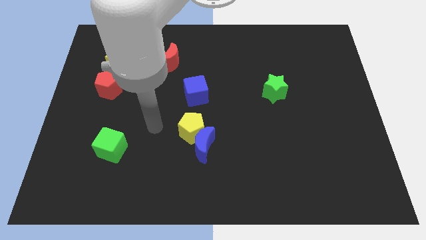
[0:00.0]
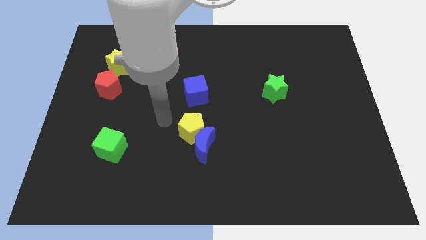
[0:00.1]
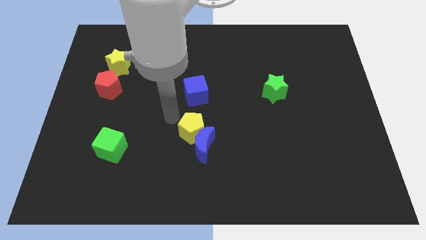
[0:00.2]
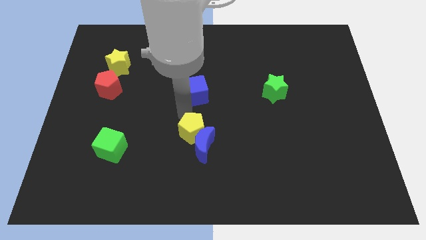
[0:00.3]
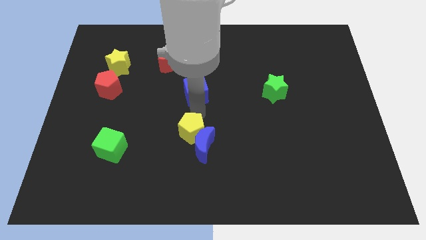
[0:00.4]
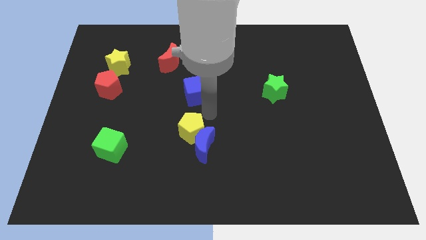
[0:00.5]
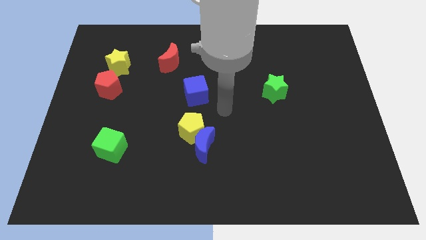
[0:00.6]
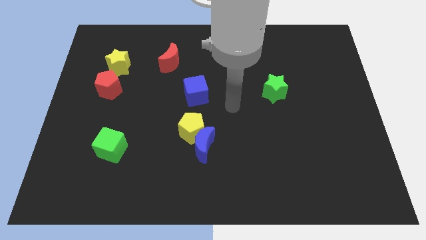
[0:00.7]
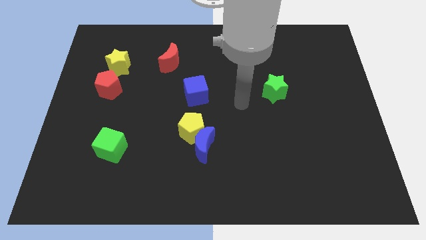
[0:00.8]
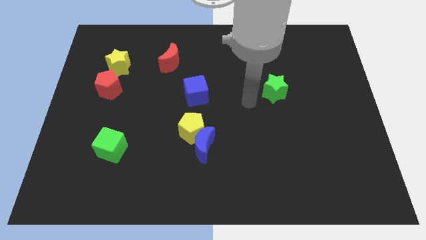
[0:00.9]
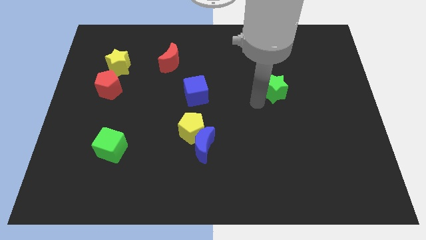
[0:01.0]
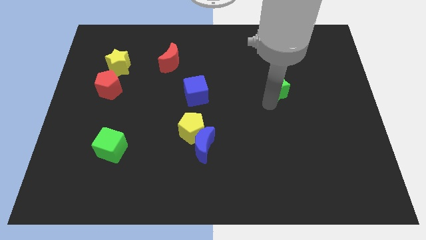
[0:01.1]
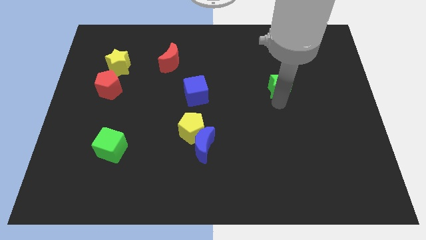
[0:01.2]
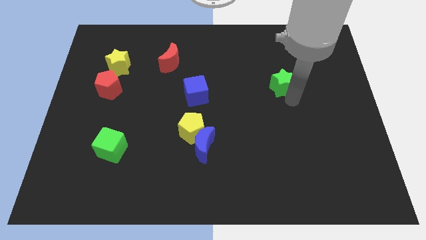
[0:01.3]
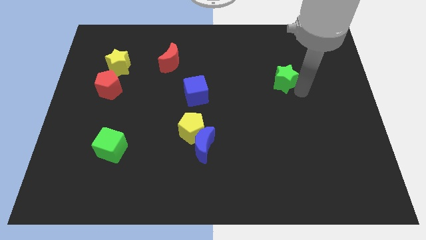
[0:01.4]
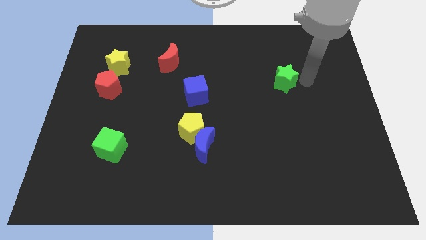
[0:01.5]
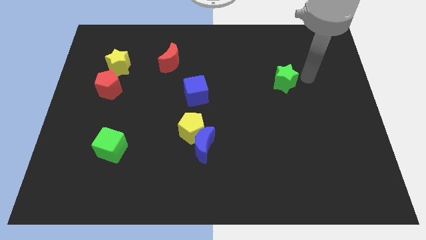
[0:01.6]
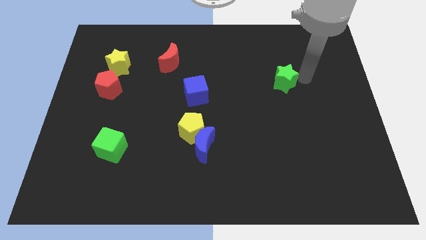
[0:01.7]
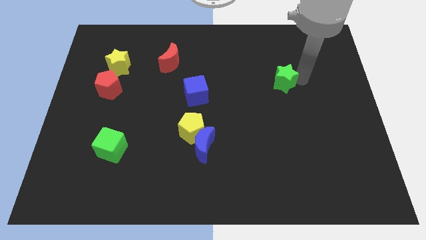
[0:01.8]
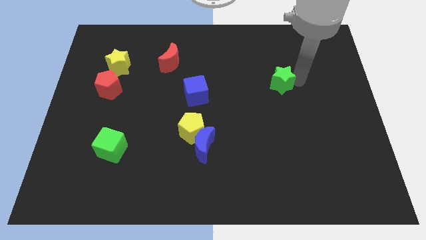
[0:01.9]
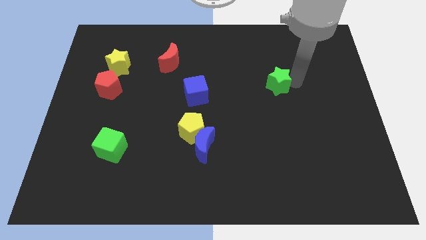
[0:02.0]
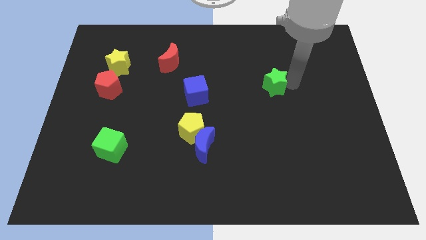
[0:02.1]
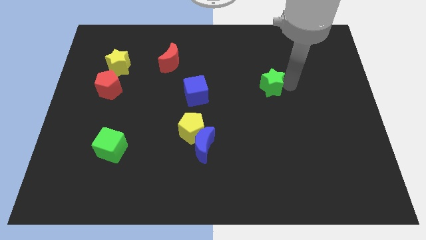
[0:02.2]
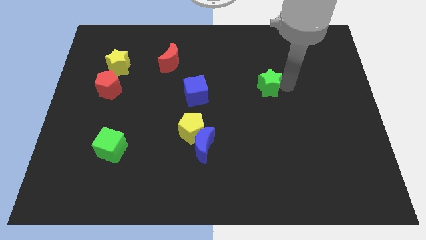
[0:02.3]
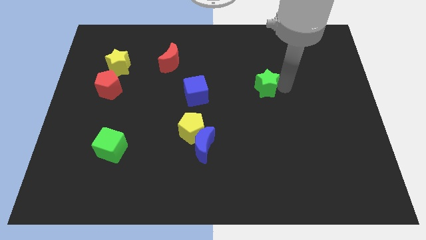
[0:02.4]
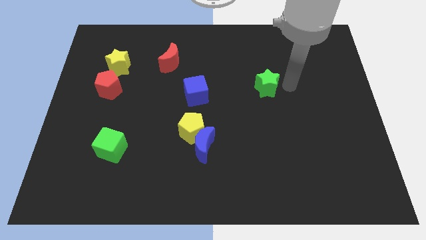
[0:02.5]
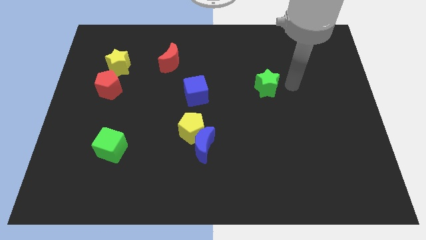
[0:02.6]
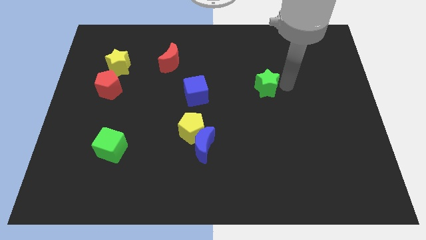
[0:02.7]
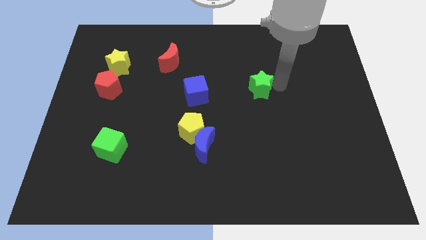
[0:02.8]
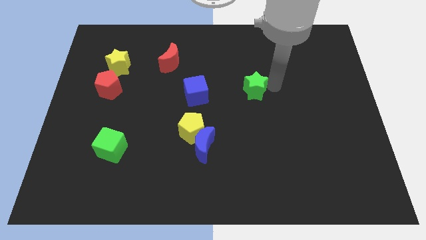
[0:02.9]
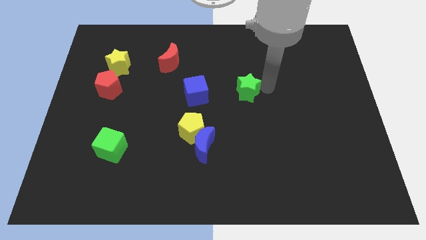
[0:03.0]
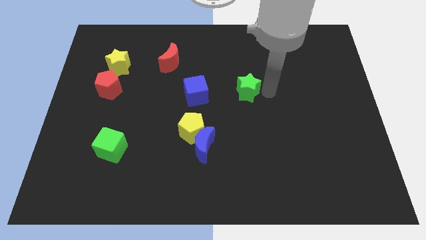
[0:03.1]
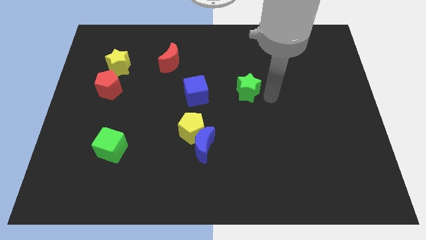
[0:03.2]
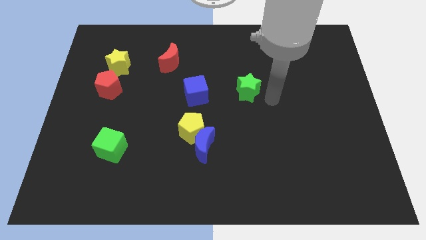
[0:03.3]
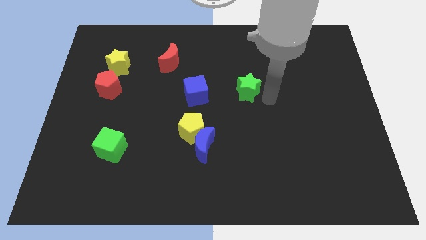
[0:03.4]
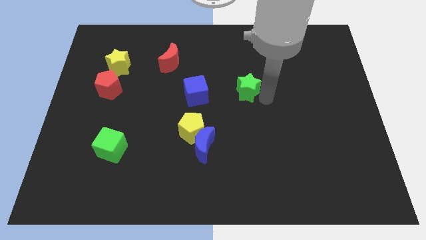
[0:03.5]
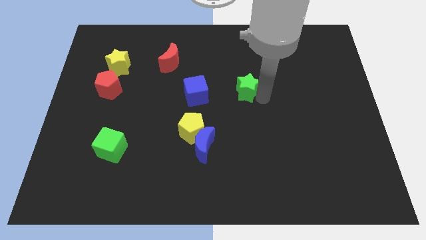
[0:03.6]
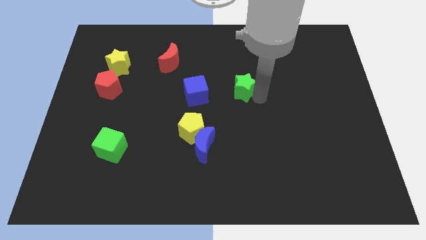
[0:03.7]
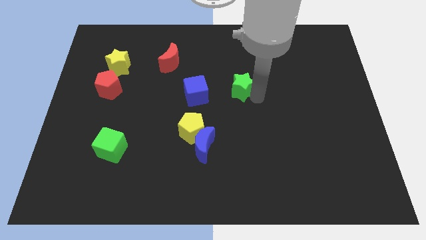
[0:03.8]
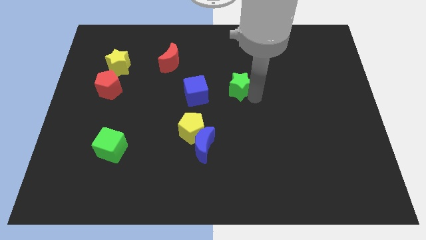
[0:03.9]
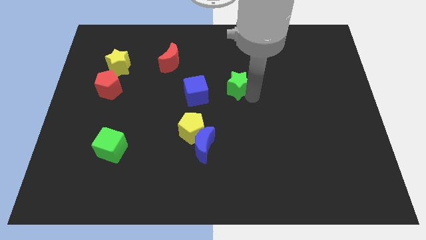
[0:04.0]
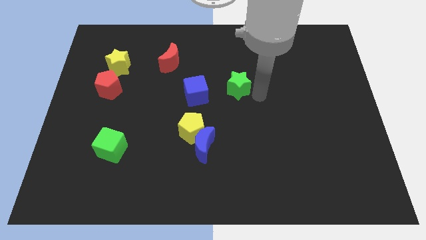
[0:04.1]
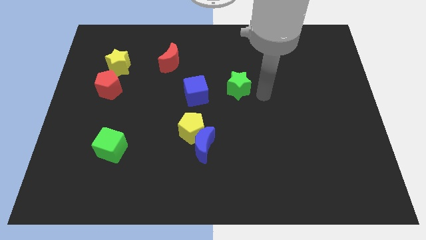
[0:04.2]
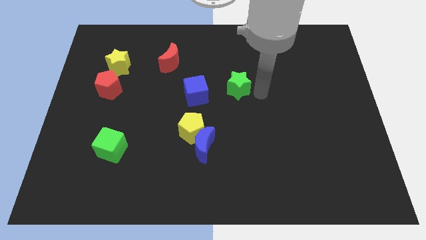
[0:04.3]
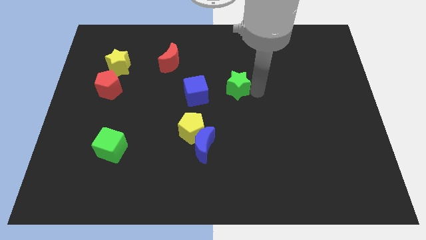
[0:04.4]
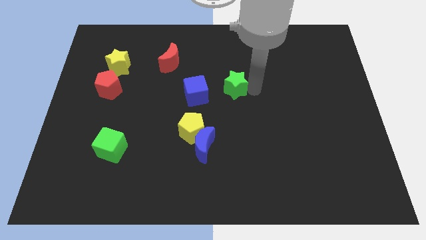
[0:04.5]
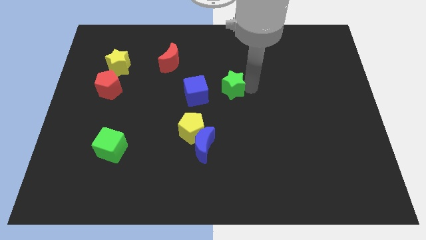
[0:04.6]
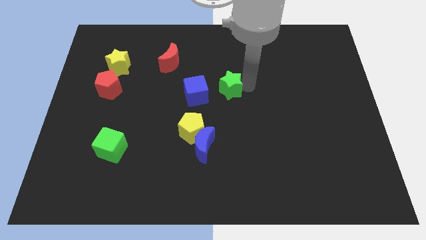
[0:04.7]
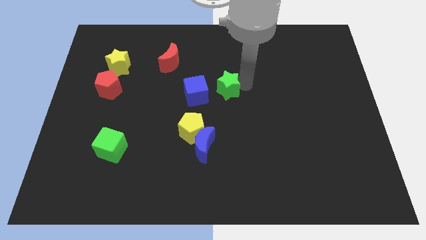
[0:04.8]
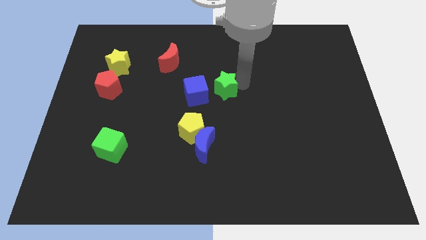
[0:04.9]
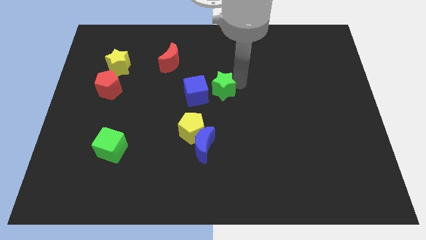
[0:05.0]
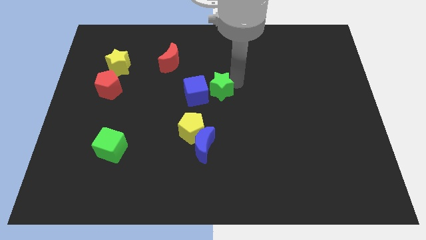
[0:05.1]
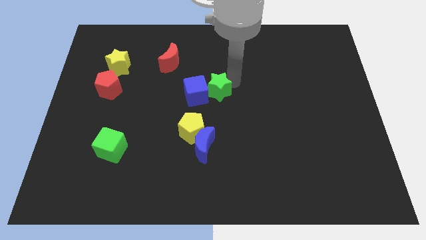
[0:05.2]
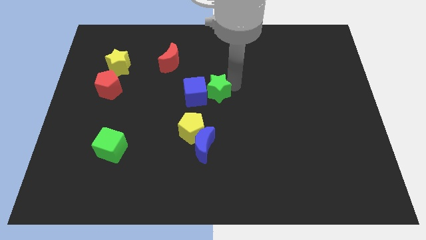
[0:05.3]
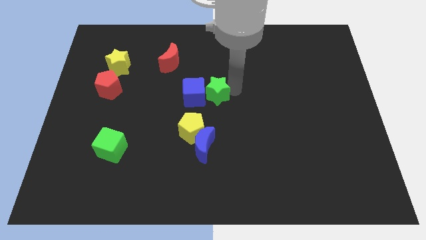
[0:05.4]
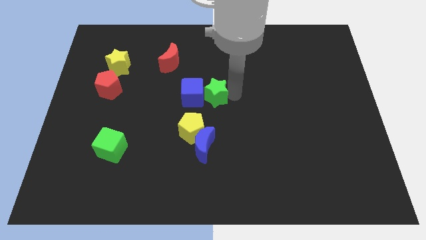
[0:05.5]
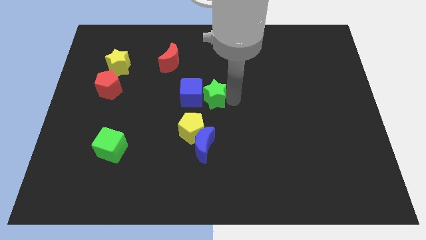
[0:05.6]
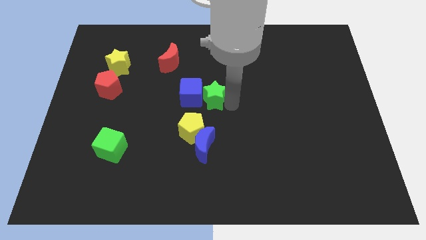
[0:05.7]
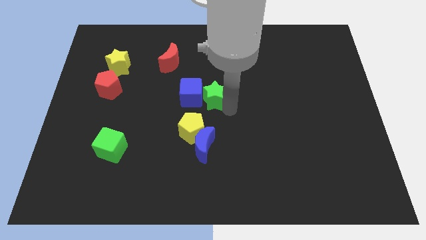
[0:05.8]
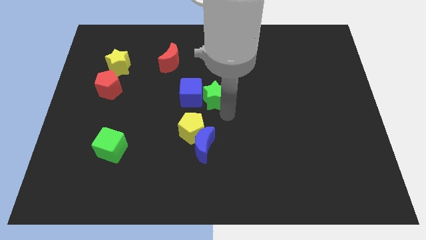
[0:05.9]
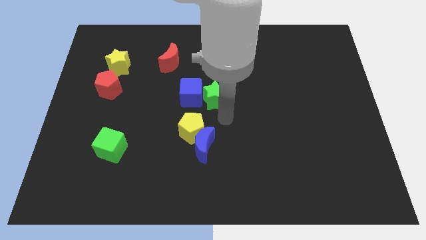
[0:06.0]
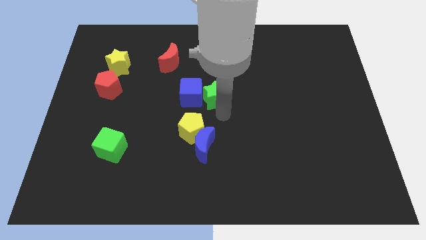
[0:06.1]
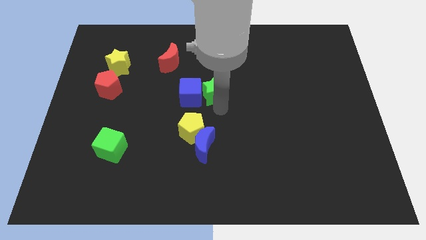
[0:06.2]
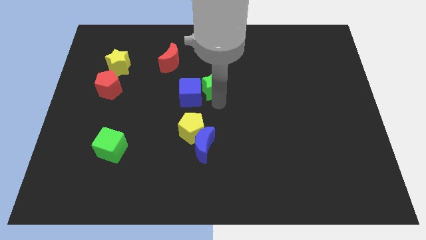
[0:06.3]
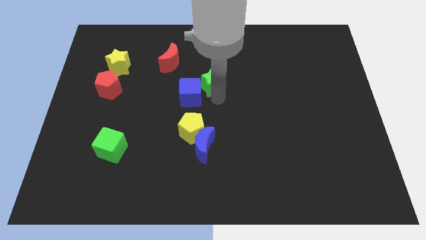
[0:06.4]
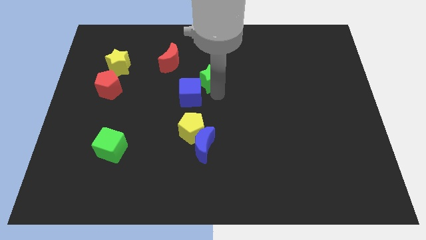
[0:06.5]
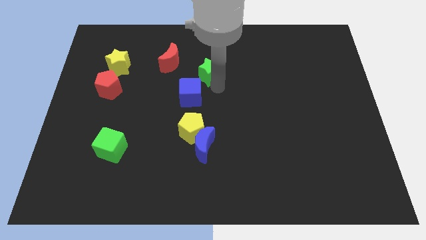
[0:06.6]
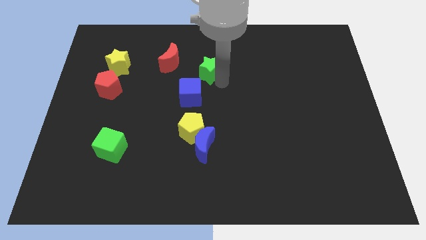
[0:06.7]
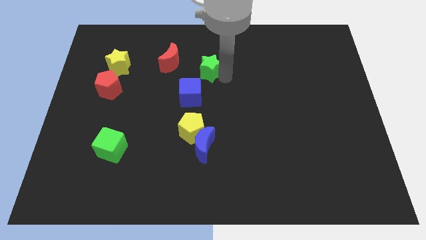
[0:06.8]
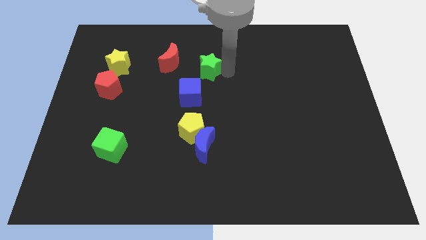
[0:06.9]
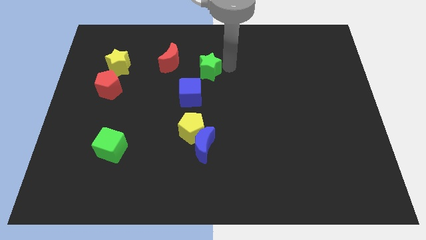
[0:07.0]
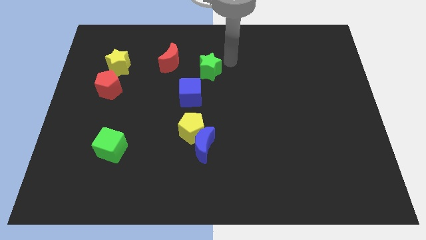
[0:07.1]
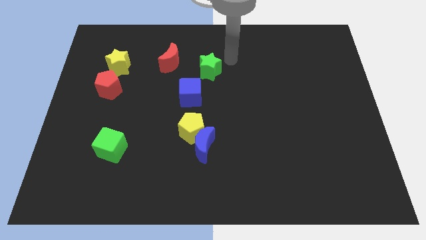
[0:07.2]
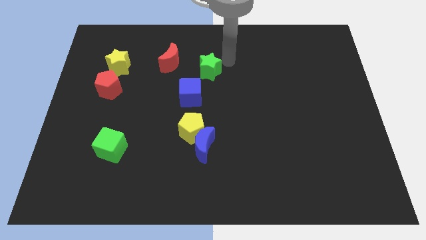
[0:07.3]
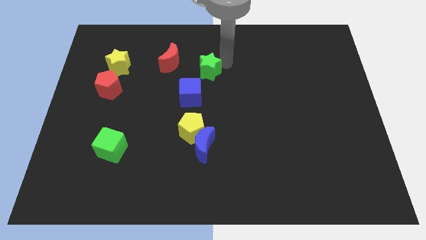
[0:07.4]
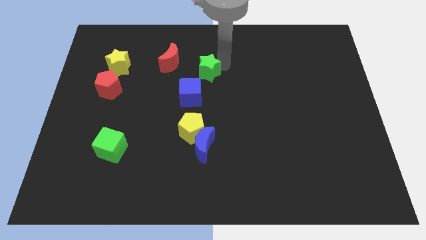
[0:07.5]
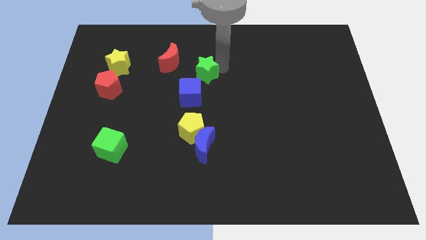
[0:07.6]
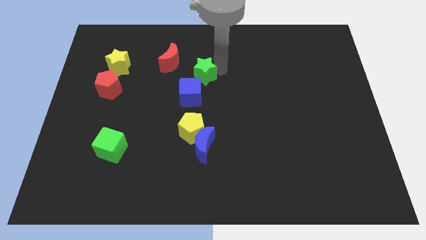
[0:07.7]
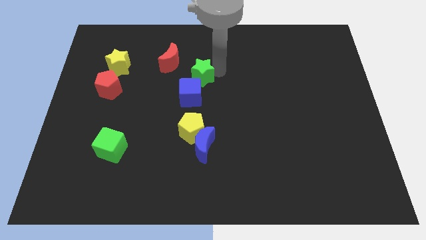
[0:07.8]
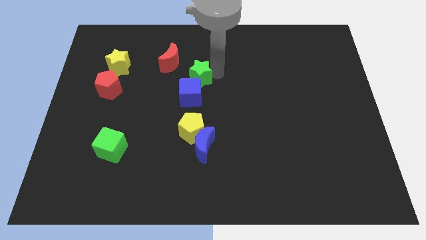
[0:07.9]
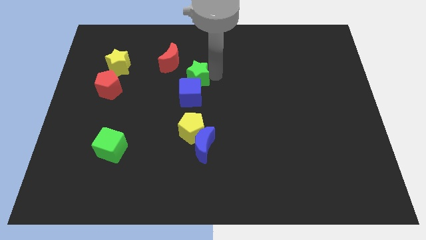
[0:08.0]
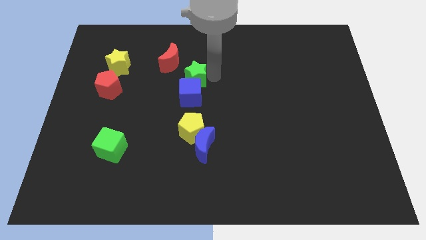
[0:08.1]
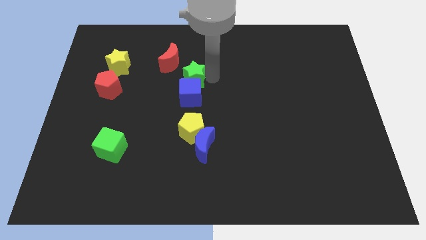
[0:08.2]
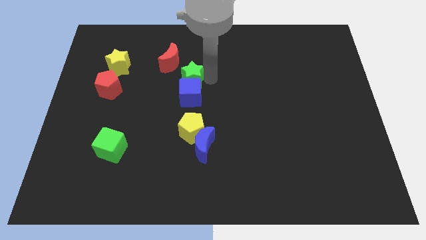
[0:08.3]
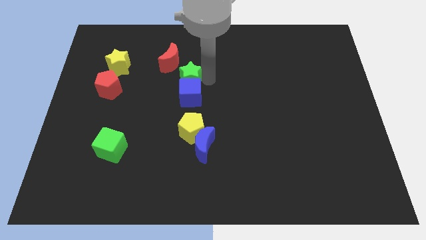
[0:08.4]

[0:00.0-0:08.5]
slide the green star to the left
